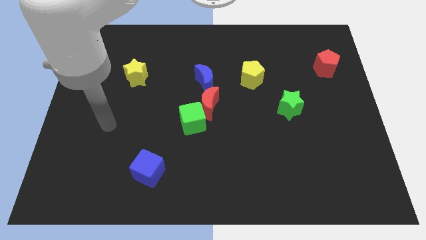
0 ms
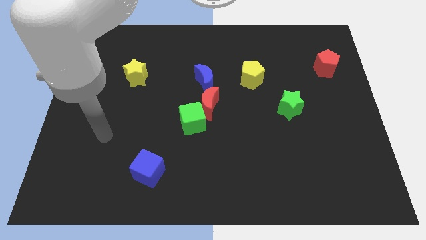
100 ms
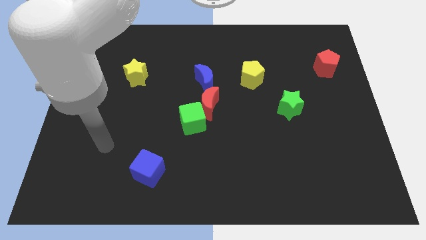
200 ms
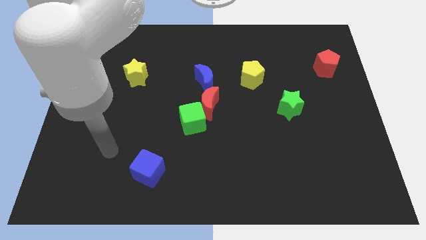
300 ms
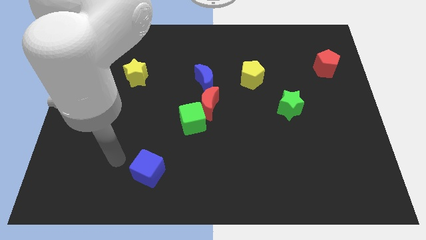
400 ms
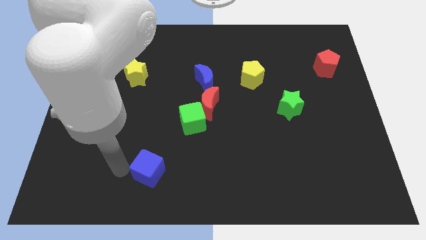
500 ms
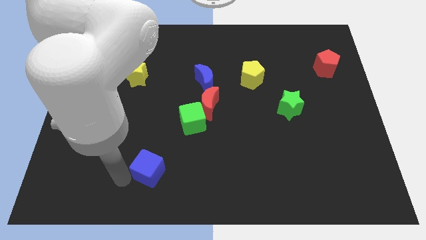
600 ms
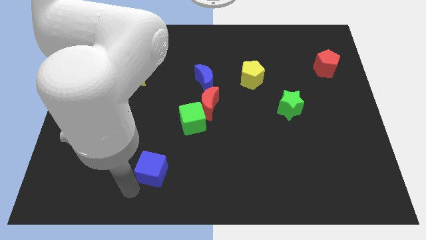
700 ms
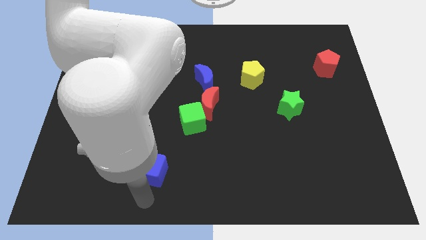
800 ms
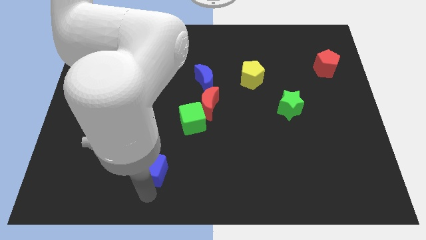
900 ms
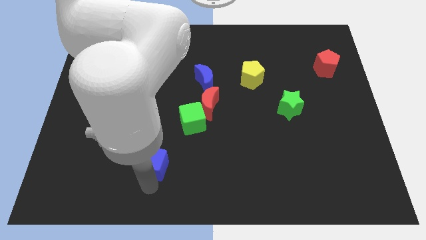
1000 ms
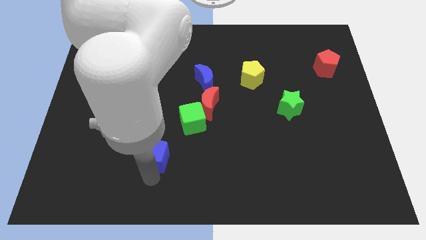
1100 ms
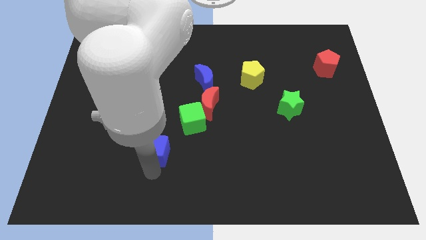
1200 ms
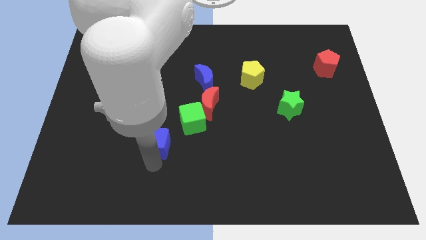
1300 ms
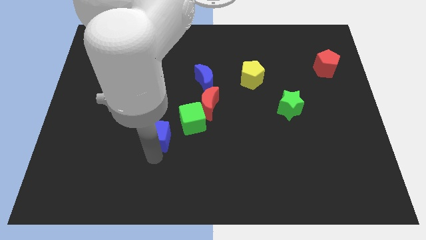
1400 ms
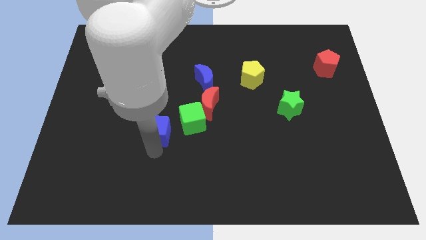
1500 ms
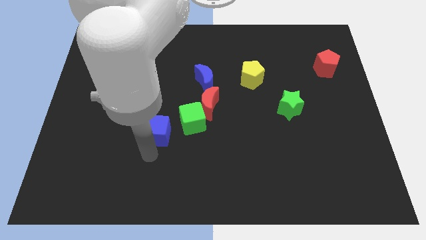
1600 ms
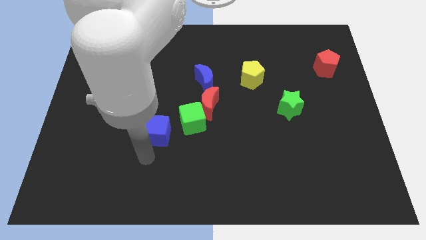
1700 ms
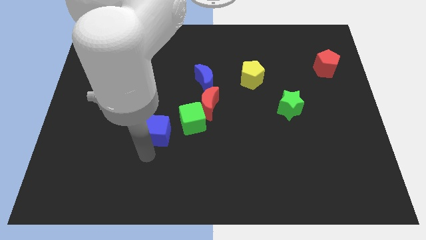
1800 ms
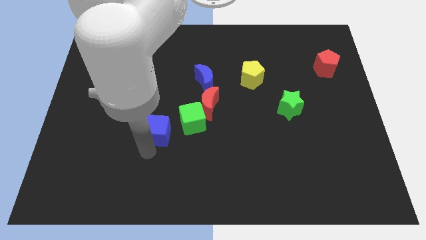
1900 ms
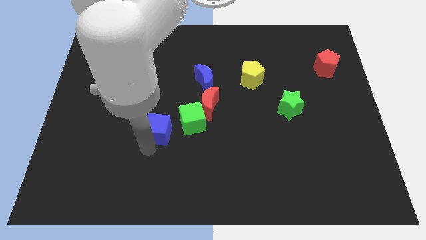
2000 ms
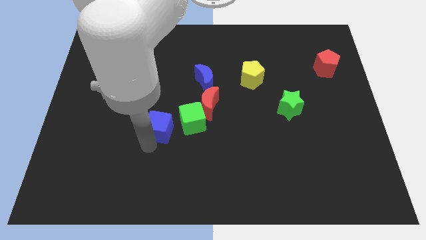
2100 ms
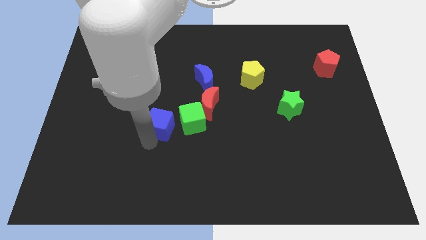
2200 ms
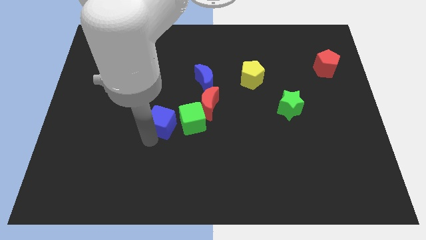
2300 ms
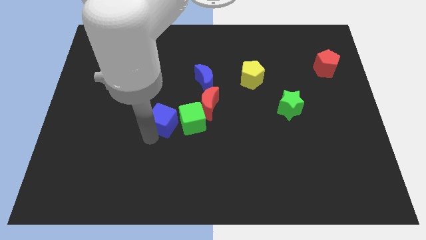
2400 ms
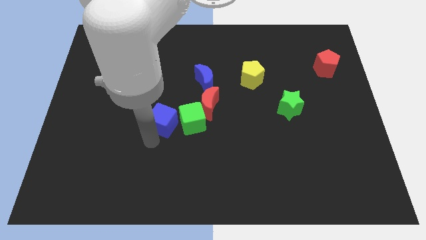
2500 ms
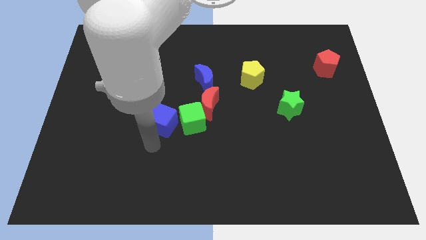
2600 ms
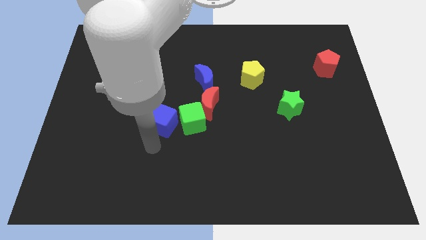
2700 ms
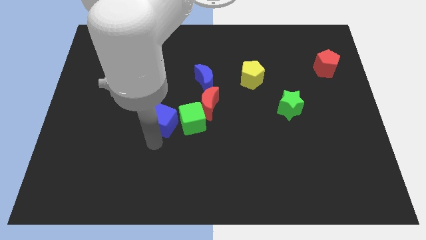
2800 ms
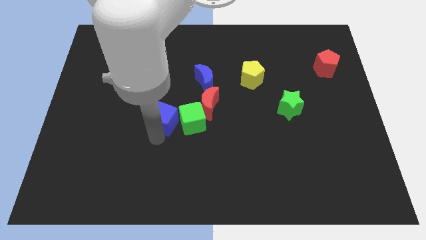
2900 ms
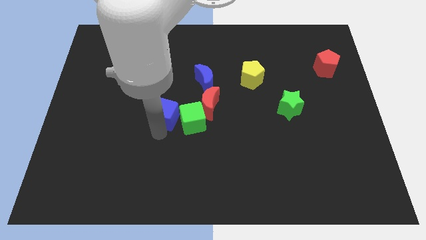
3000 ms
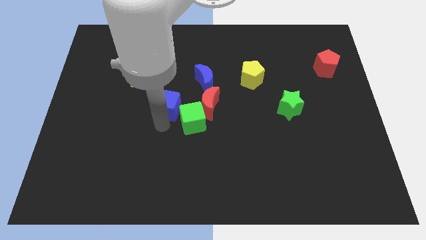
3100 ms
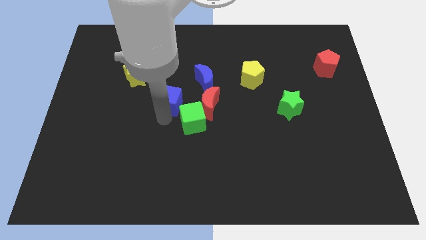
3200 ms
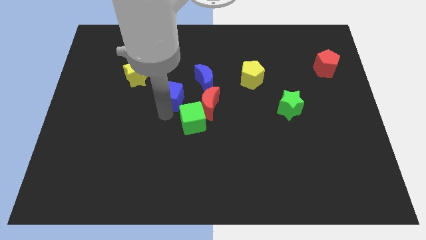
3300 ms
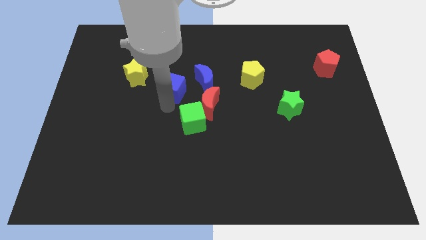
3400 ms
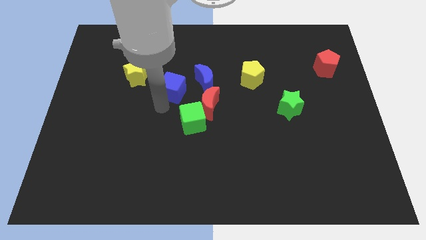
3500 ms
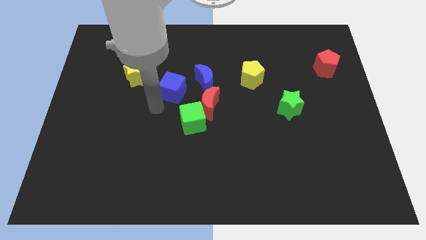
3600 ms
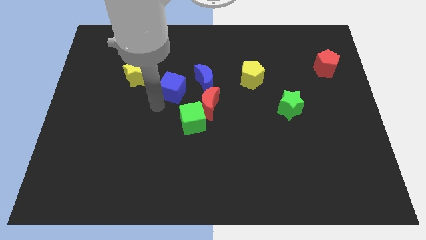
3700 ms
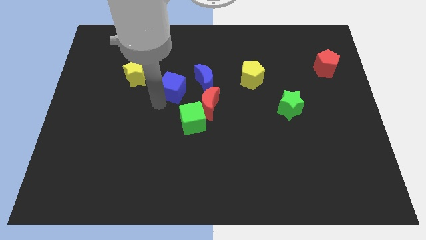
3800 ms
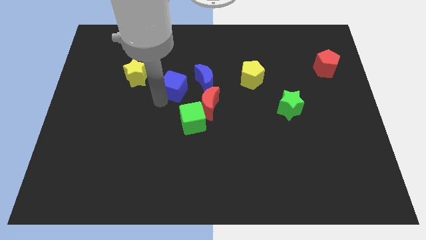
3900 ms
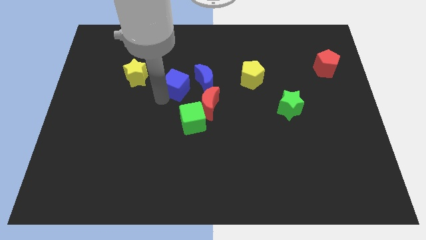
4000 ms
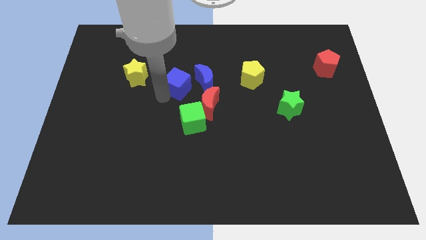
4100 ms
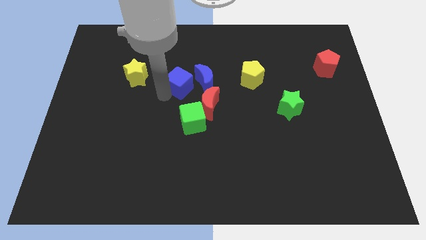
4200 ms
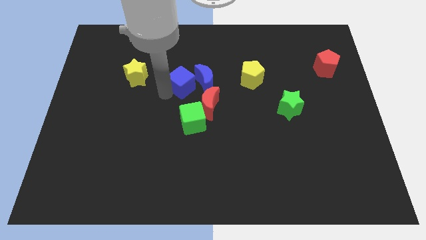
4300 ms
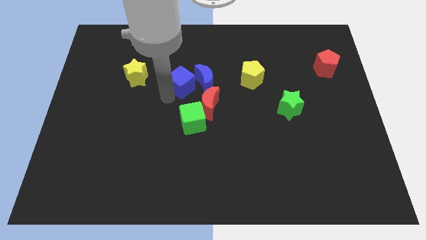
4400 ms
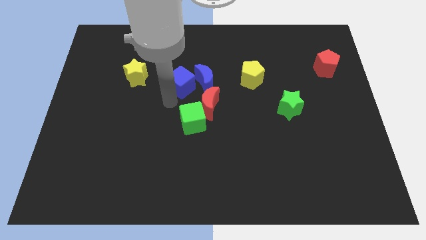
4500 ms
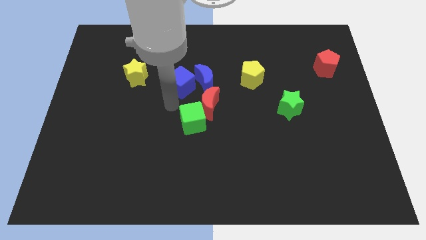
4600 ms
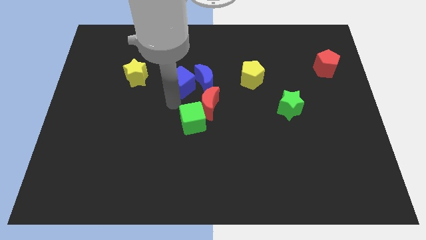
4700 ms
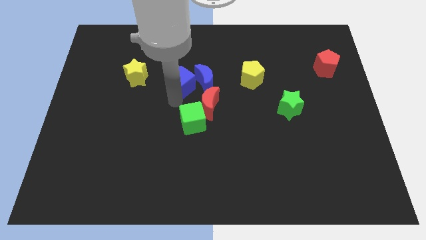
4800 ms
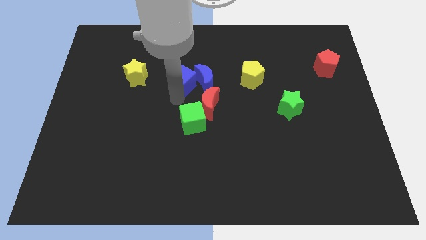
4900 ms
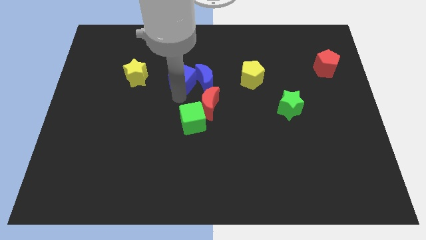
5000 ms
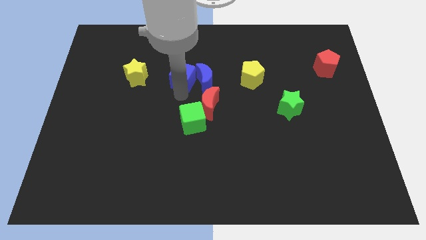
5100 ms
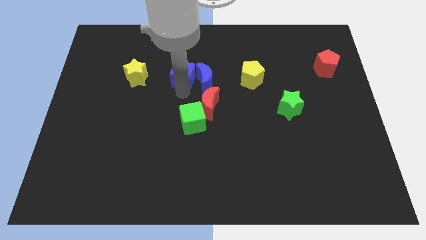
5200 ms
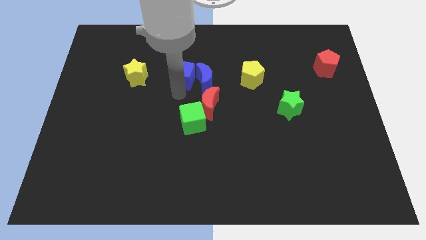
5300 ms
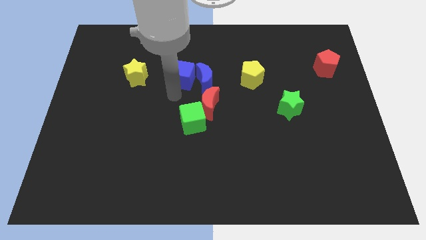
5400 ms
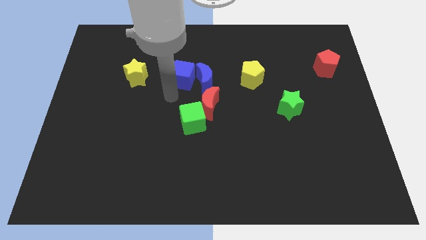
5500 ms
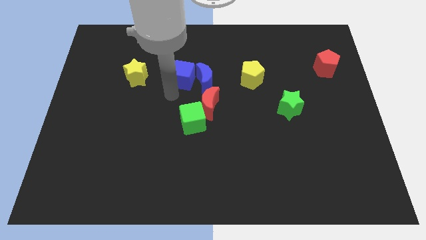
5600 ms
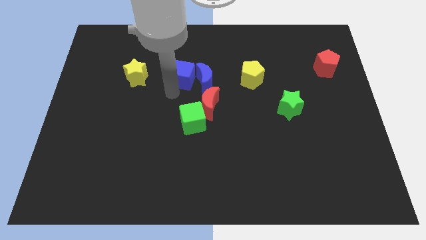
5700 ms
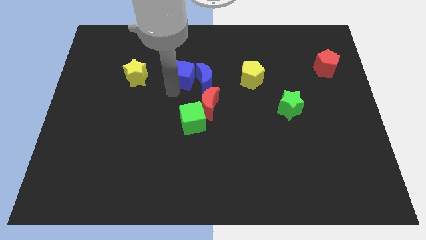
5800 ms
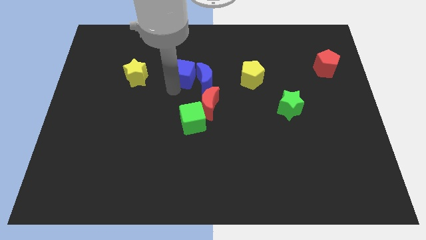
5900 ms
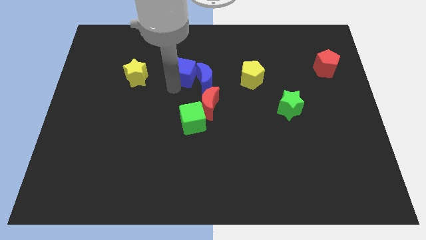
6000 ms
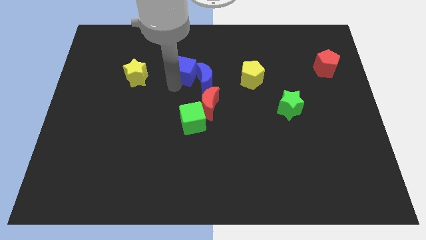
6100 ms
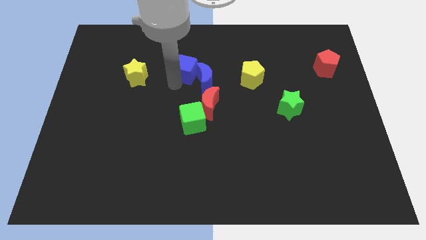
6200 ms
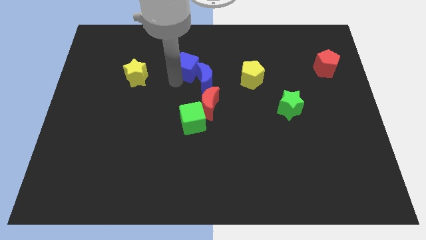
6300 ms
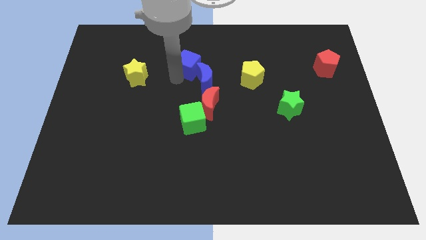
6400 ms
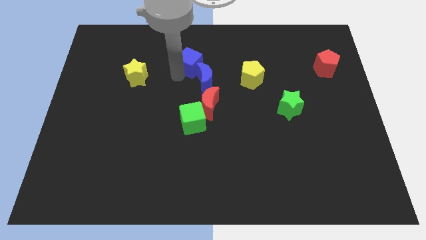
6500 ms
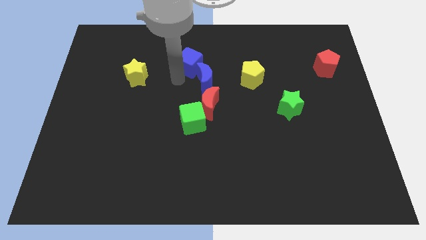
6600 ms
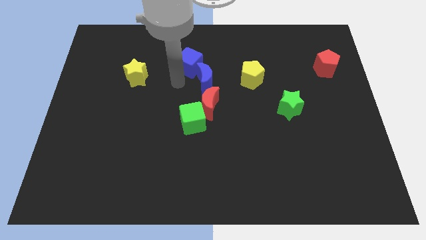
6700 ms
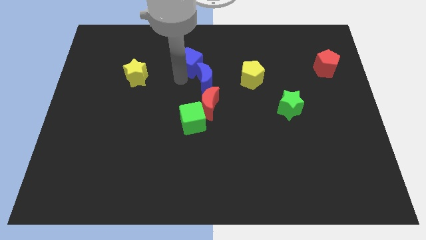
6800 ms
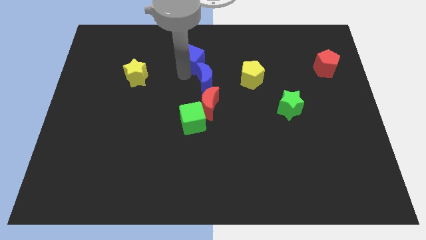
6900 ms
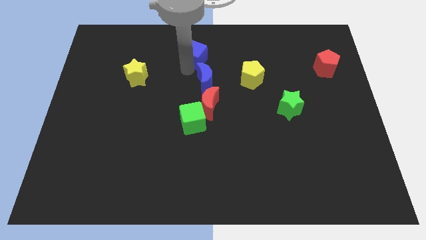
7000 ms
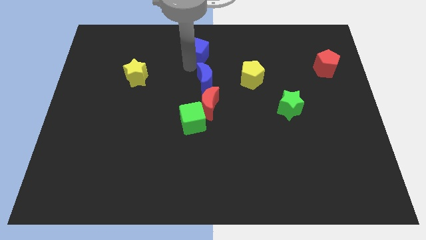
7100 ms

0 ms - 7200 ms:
slide the blue cube to the top
